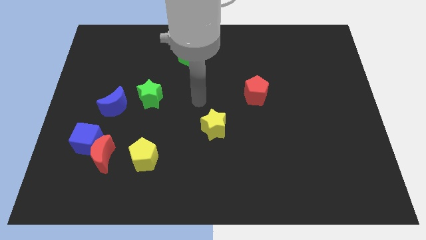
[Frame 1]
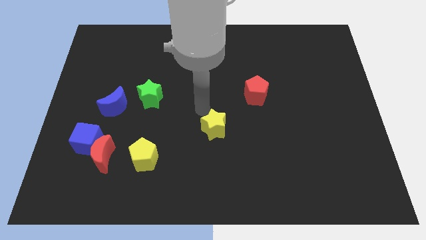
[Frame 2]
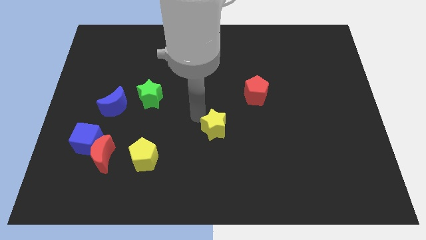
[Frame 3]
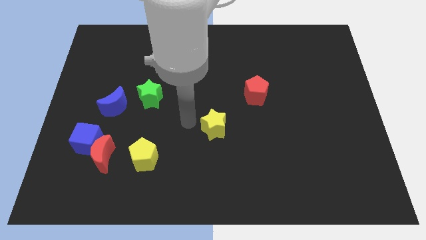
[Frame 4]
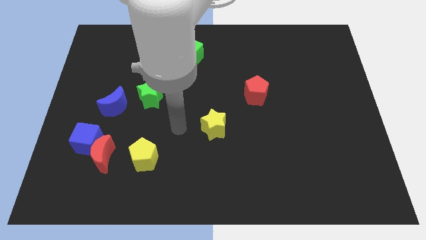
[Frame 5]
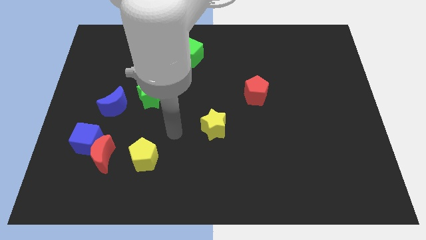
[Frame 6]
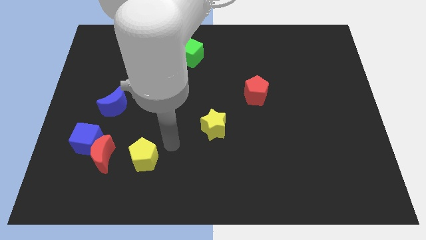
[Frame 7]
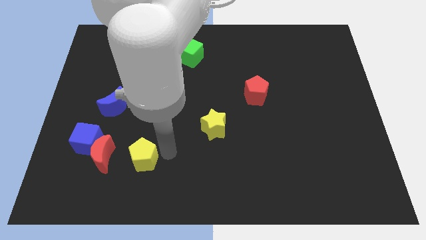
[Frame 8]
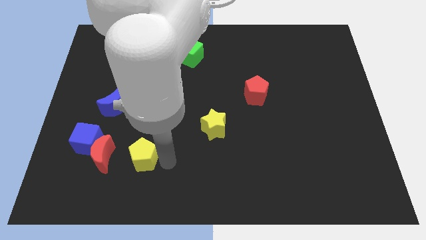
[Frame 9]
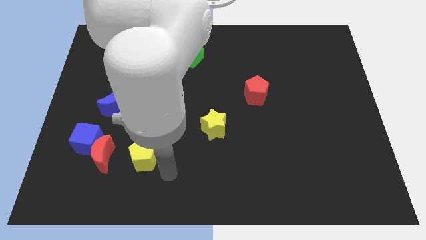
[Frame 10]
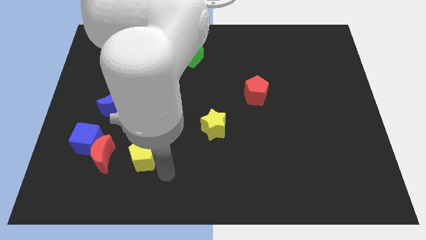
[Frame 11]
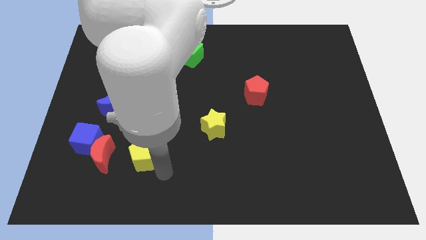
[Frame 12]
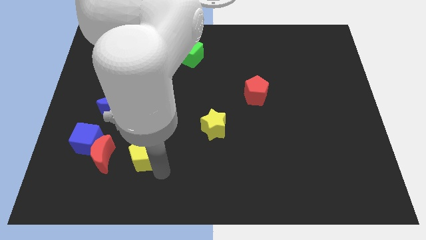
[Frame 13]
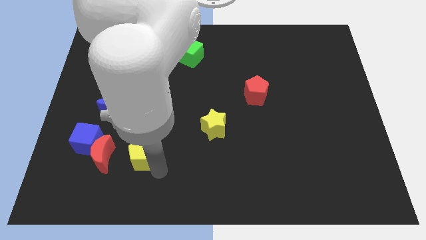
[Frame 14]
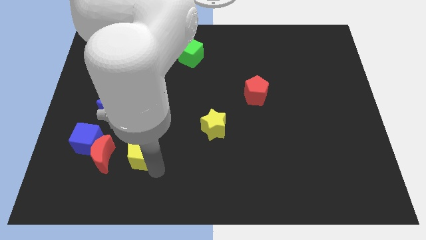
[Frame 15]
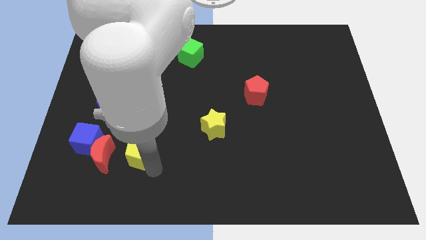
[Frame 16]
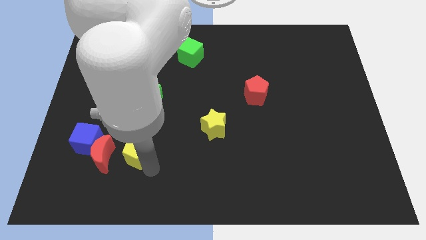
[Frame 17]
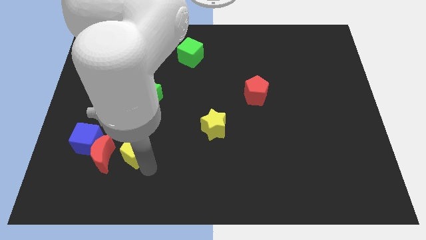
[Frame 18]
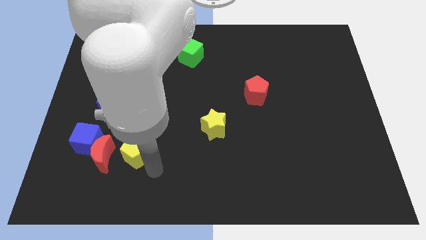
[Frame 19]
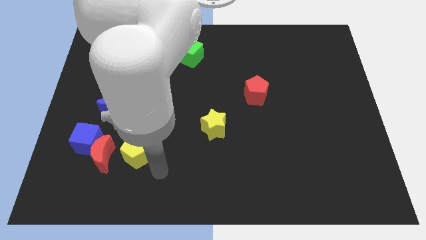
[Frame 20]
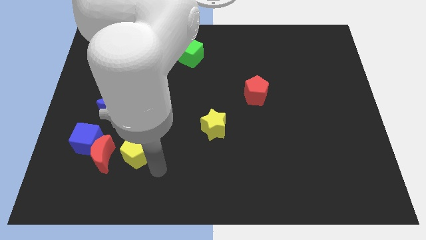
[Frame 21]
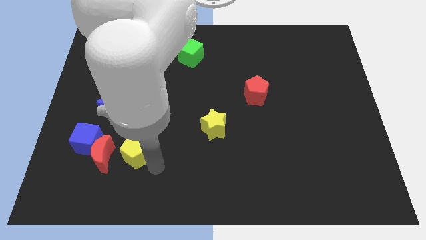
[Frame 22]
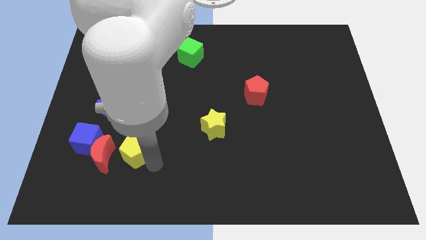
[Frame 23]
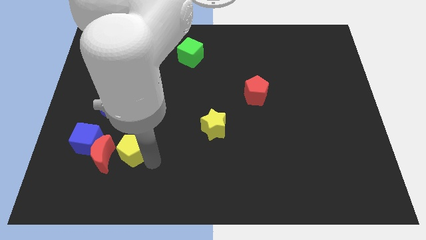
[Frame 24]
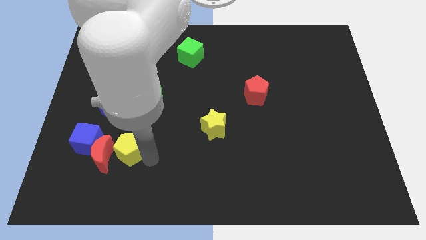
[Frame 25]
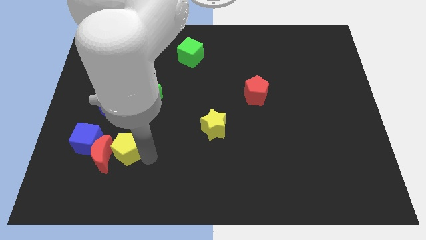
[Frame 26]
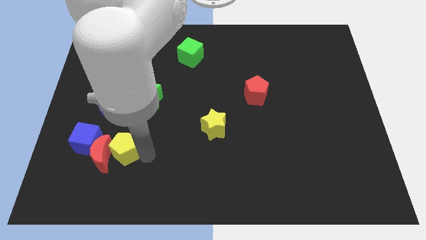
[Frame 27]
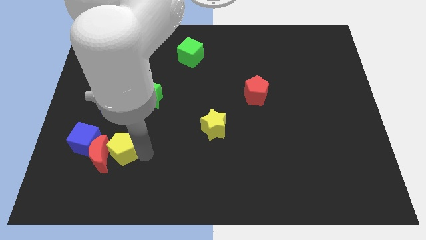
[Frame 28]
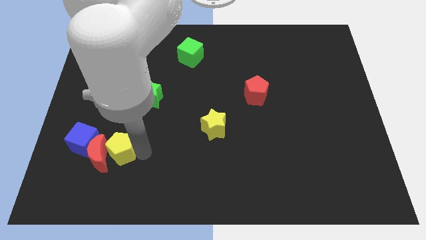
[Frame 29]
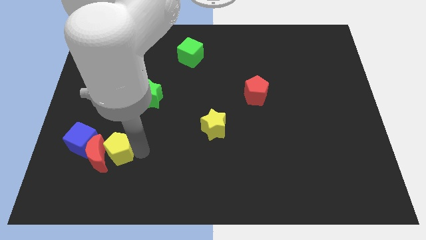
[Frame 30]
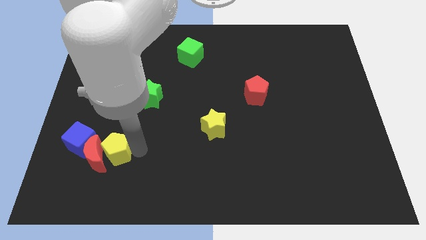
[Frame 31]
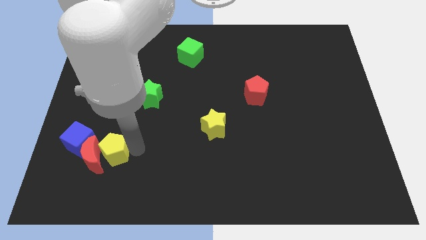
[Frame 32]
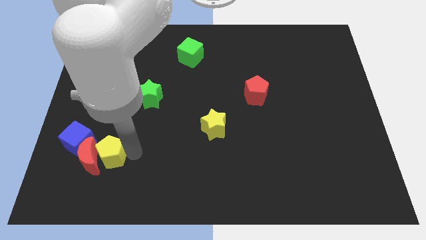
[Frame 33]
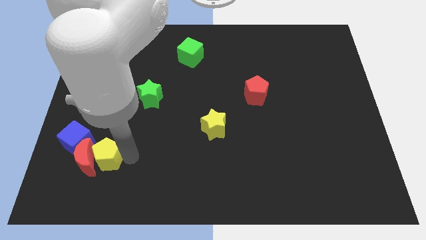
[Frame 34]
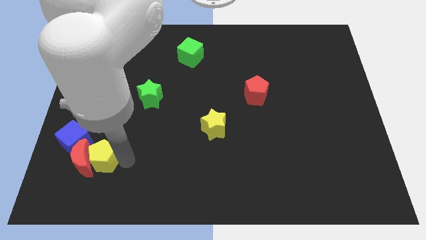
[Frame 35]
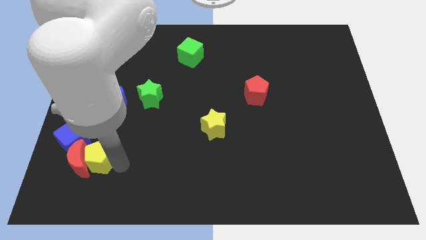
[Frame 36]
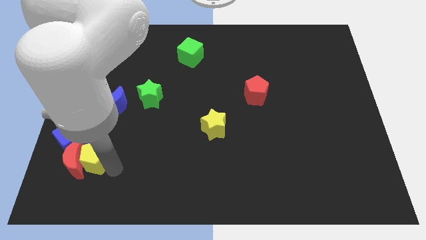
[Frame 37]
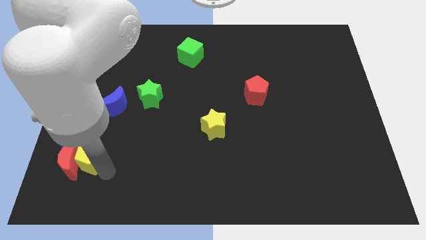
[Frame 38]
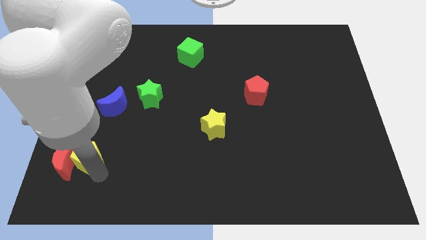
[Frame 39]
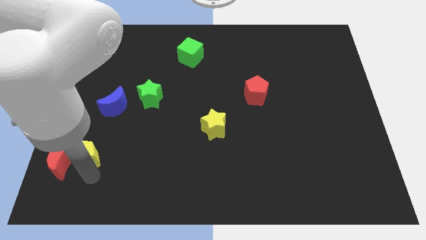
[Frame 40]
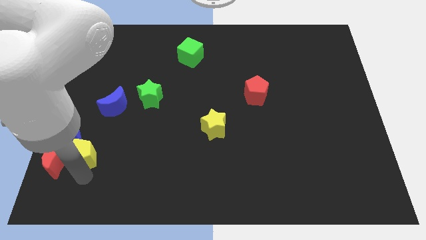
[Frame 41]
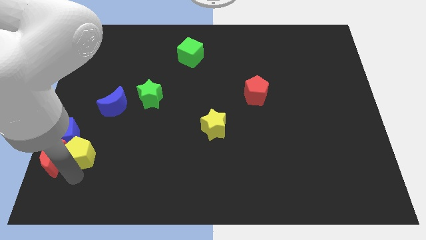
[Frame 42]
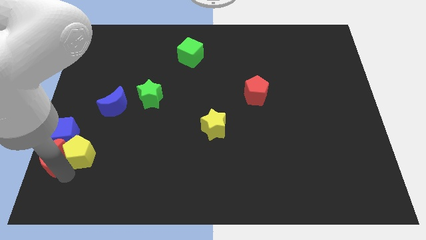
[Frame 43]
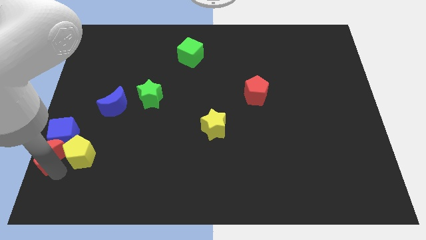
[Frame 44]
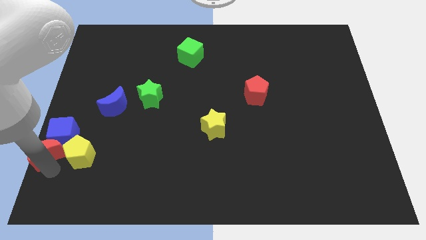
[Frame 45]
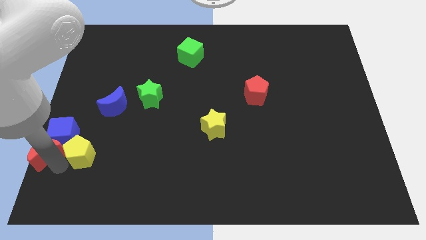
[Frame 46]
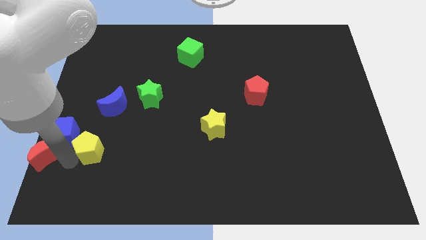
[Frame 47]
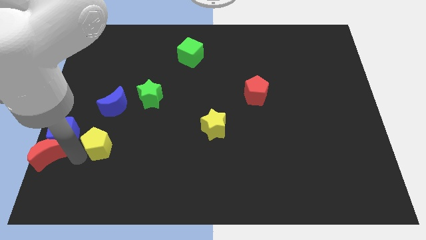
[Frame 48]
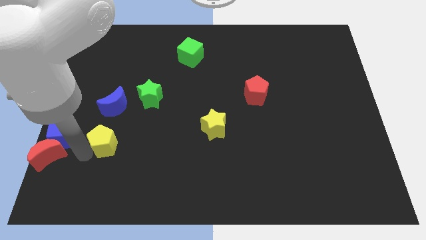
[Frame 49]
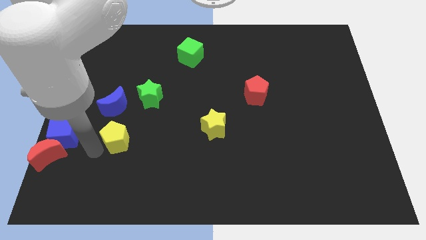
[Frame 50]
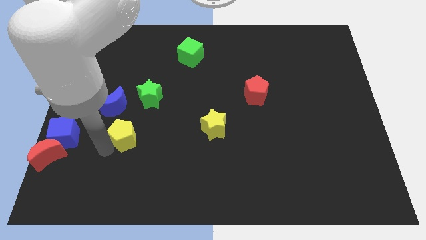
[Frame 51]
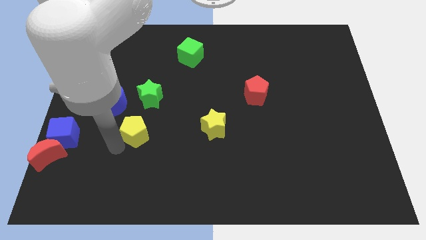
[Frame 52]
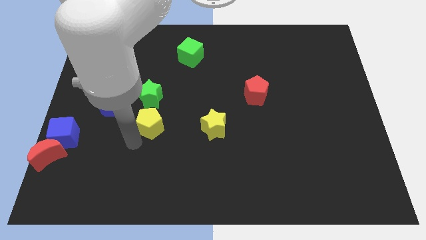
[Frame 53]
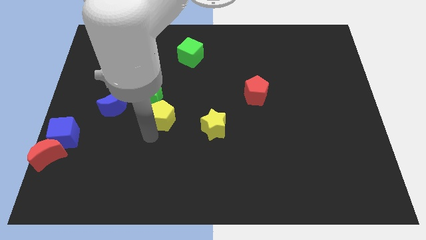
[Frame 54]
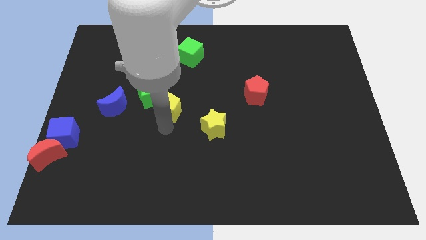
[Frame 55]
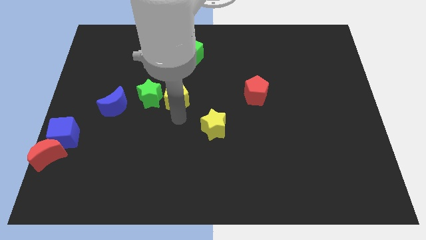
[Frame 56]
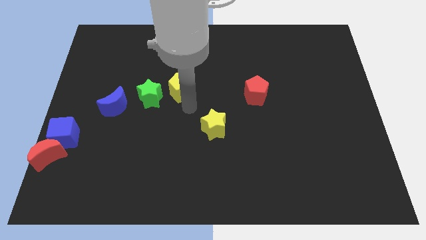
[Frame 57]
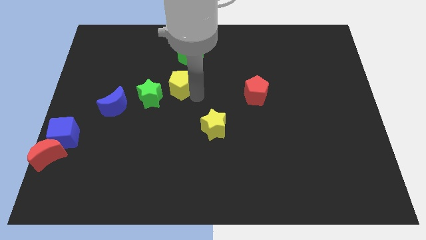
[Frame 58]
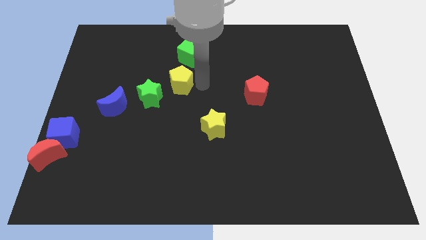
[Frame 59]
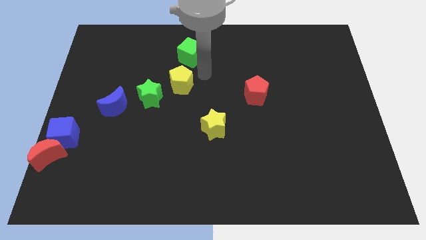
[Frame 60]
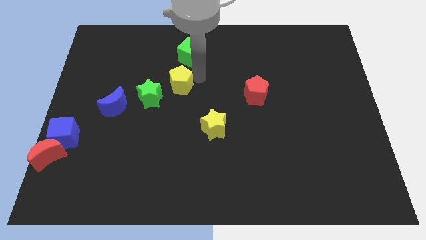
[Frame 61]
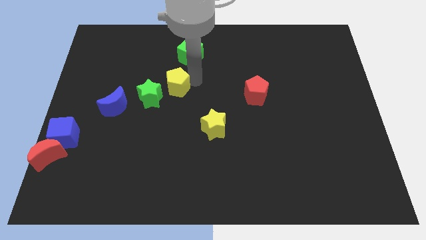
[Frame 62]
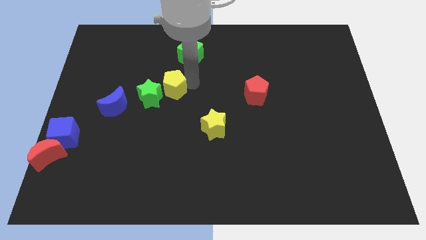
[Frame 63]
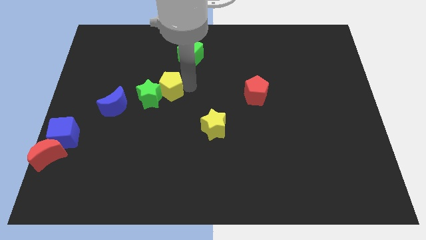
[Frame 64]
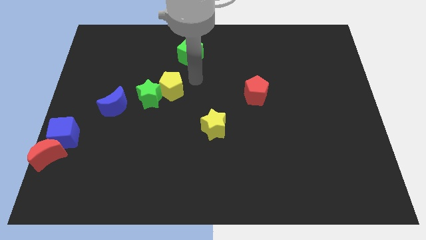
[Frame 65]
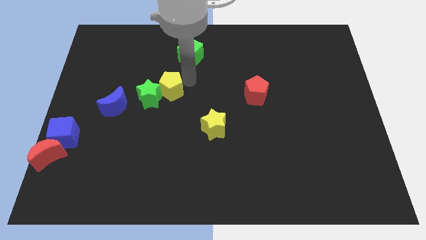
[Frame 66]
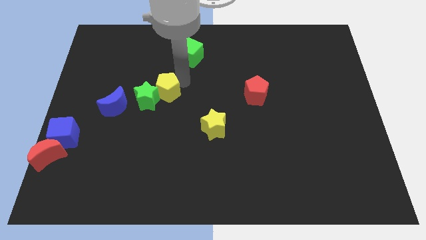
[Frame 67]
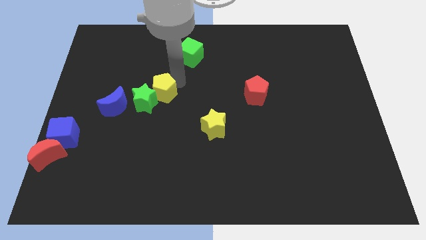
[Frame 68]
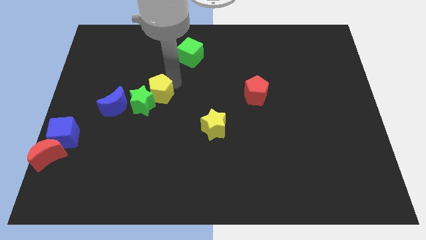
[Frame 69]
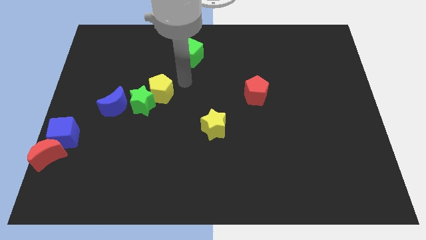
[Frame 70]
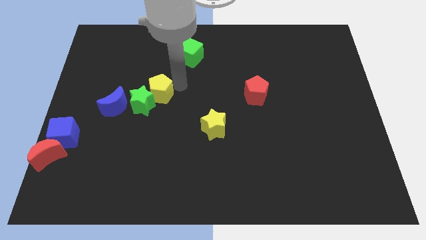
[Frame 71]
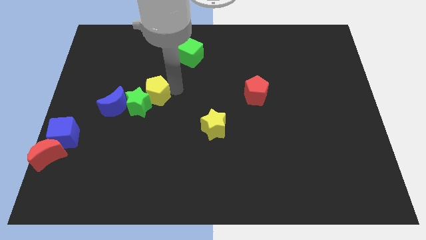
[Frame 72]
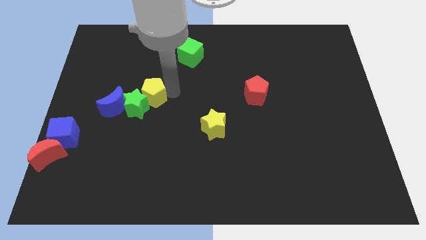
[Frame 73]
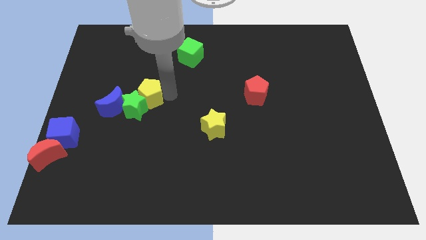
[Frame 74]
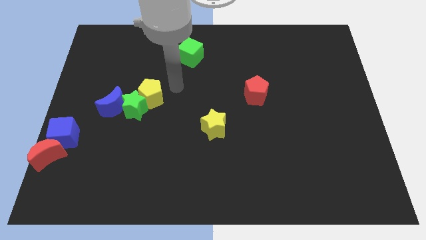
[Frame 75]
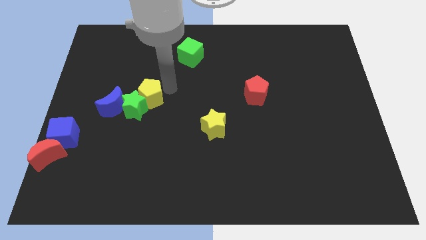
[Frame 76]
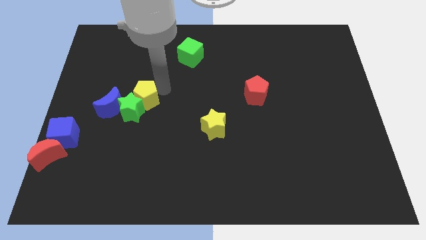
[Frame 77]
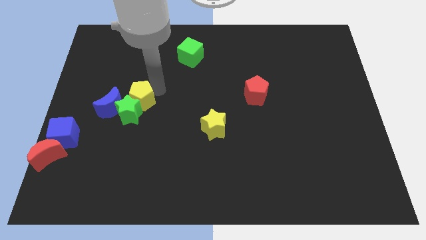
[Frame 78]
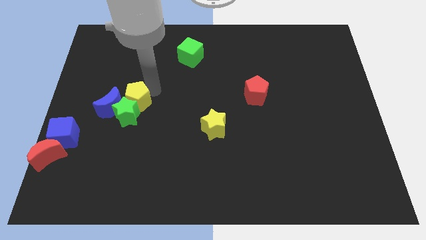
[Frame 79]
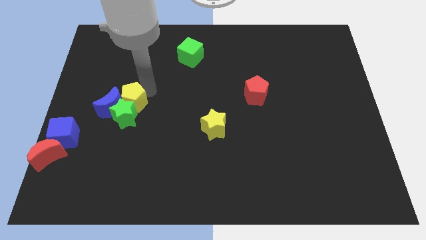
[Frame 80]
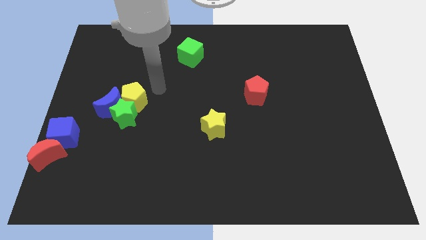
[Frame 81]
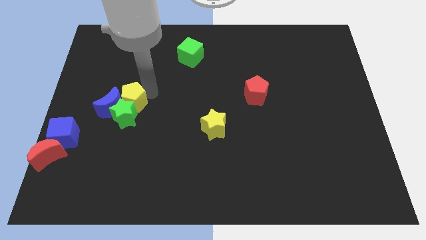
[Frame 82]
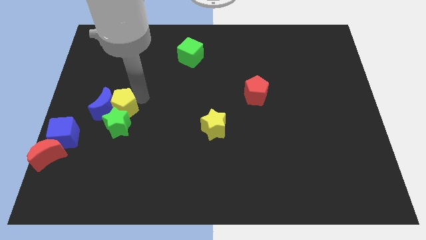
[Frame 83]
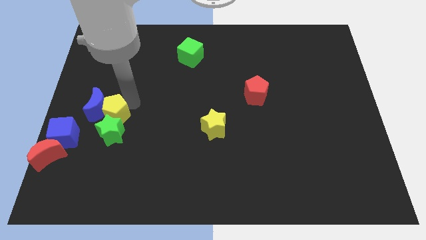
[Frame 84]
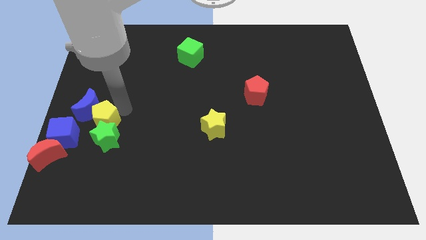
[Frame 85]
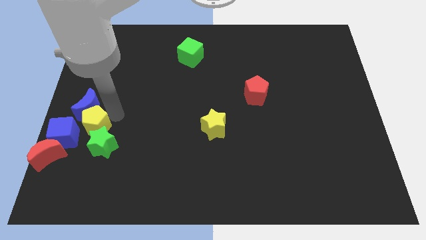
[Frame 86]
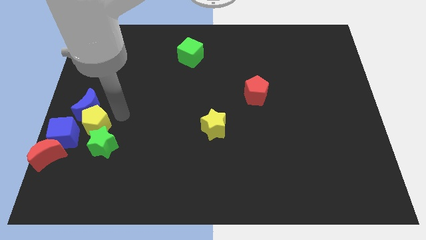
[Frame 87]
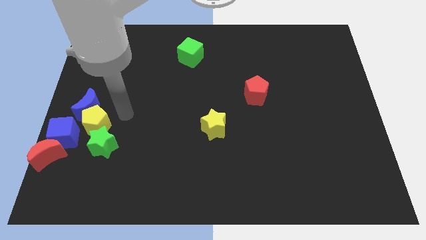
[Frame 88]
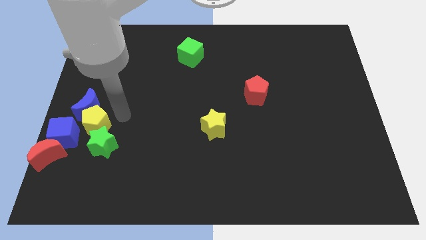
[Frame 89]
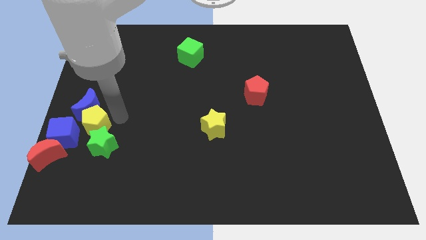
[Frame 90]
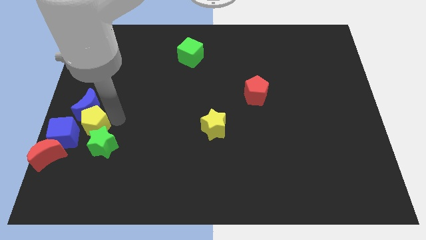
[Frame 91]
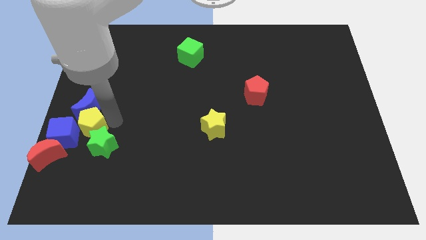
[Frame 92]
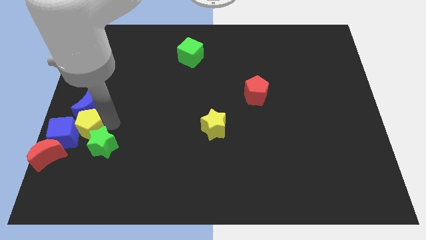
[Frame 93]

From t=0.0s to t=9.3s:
put the yellow pentagon towards the blue cube
